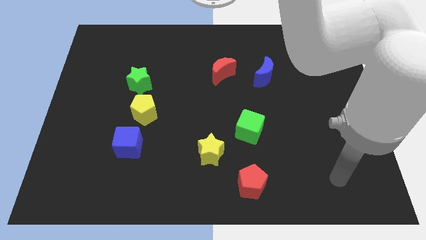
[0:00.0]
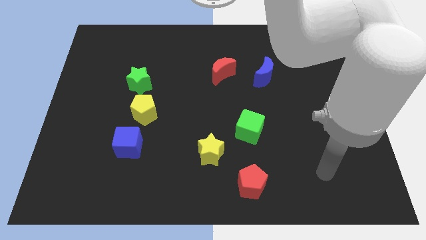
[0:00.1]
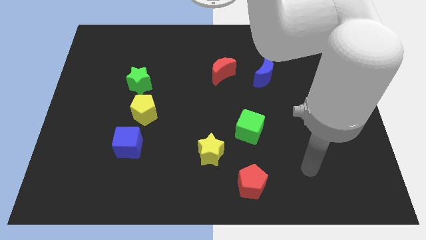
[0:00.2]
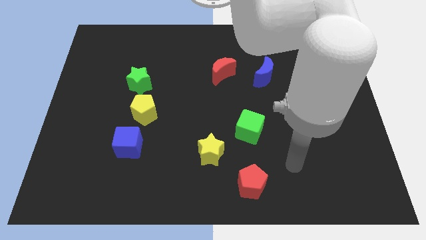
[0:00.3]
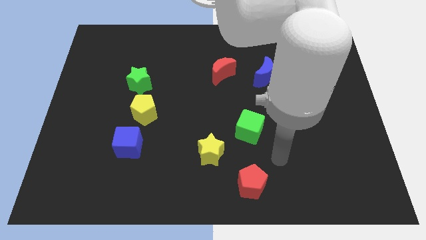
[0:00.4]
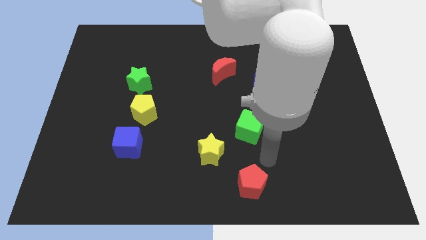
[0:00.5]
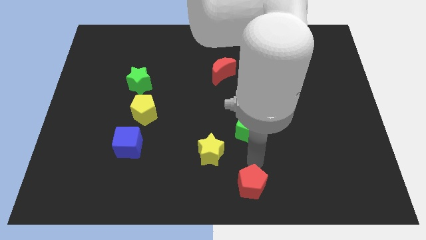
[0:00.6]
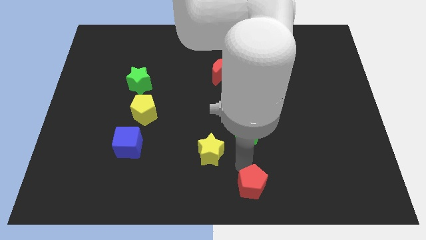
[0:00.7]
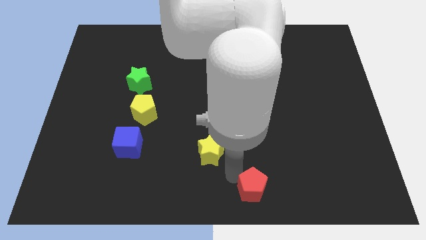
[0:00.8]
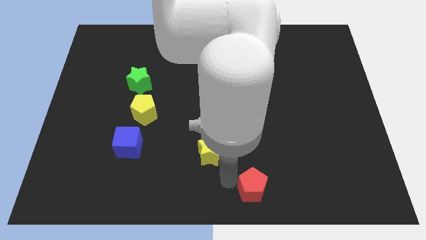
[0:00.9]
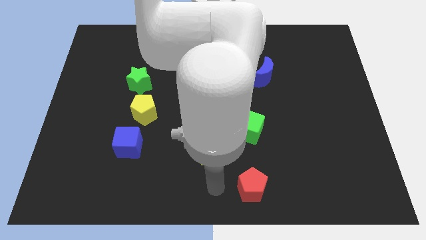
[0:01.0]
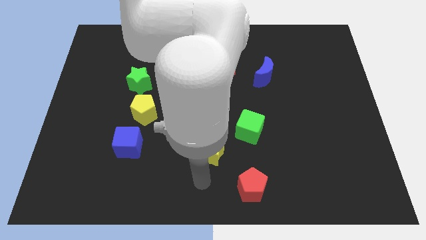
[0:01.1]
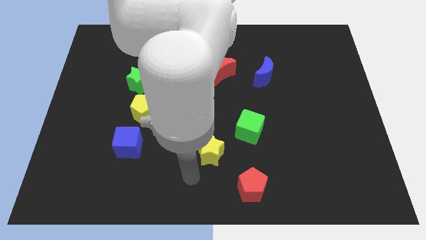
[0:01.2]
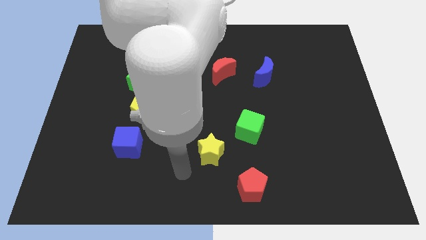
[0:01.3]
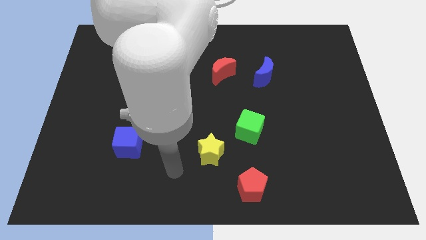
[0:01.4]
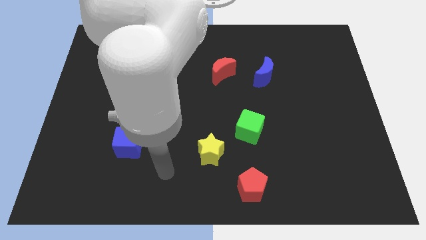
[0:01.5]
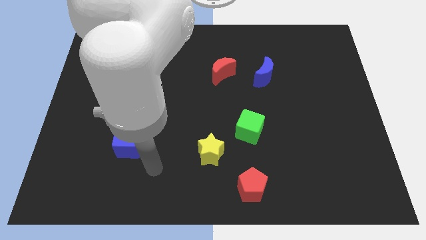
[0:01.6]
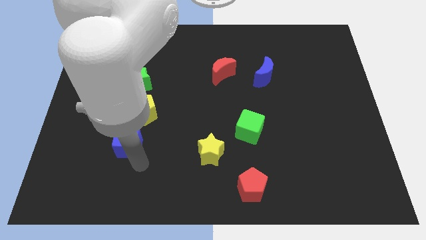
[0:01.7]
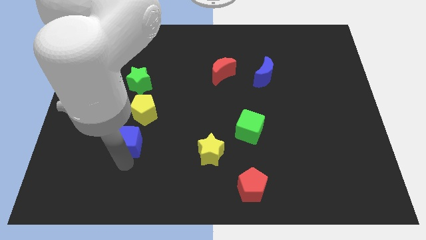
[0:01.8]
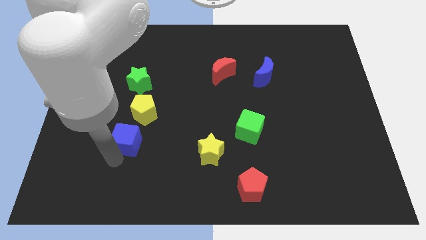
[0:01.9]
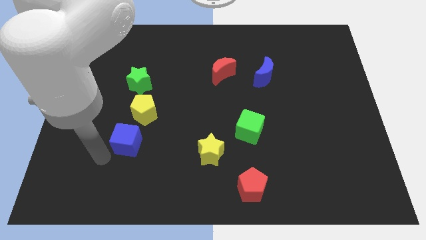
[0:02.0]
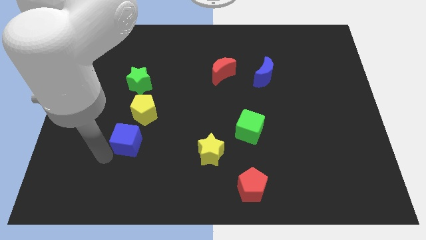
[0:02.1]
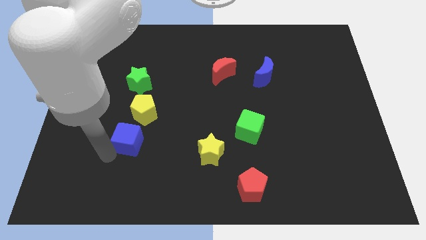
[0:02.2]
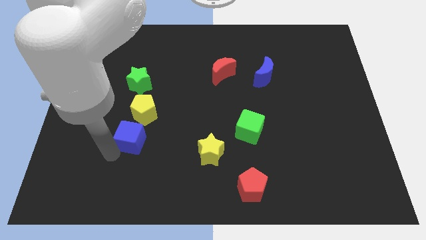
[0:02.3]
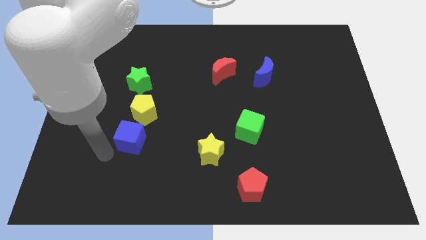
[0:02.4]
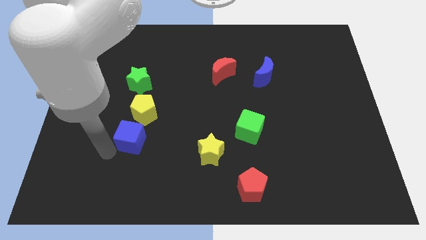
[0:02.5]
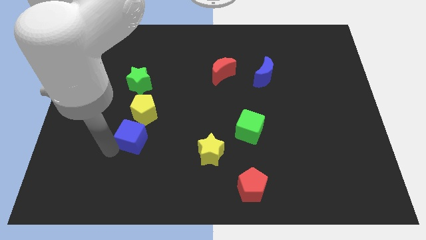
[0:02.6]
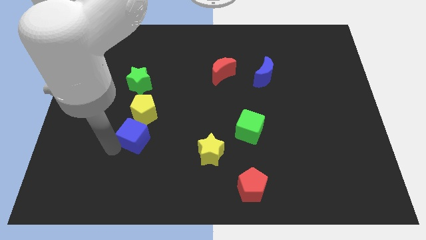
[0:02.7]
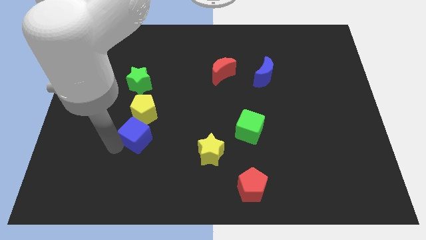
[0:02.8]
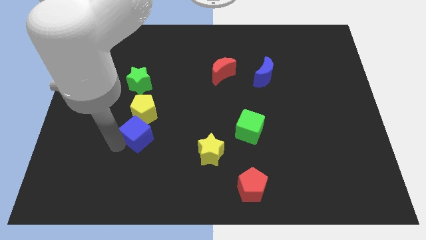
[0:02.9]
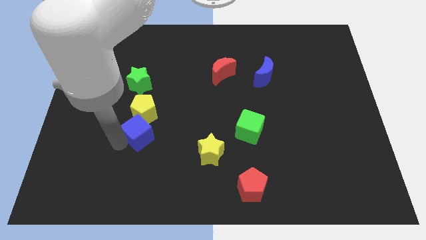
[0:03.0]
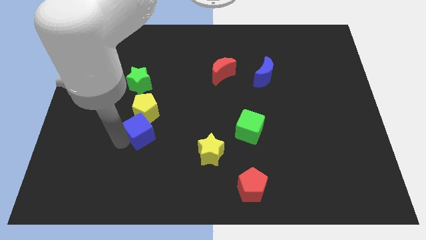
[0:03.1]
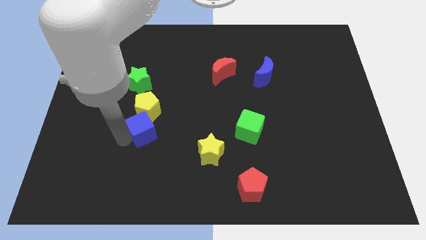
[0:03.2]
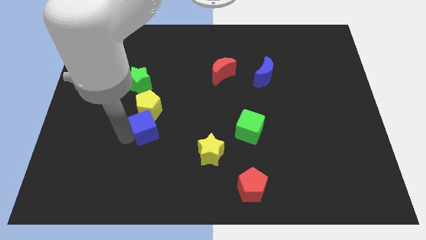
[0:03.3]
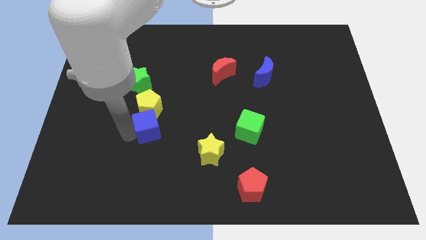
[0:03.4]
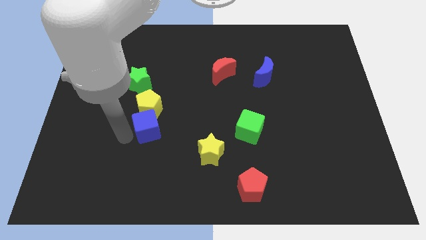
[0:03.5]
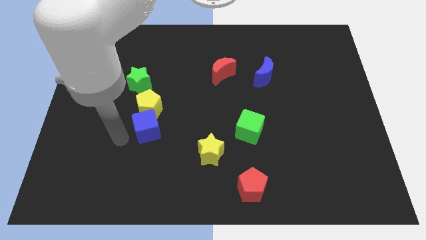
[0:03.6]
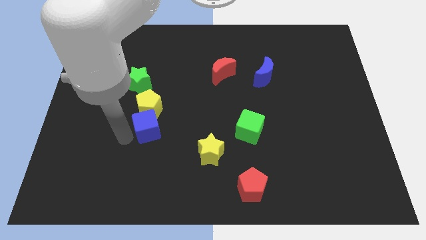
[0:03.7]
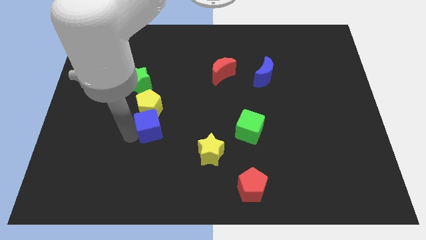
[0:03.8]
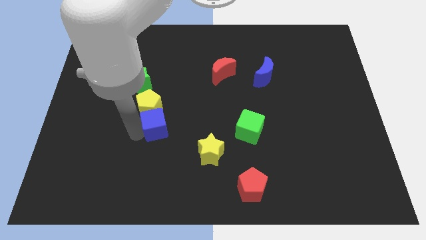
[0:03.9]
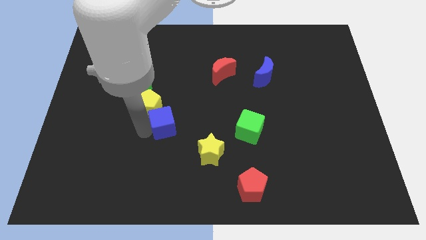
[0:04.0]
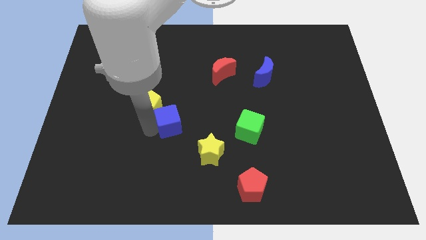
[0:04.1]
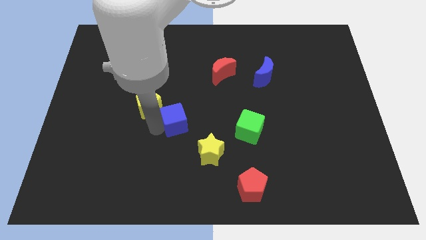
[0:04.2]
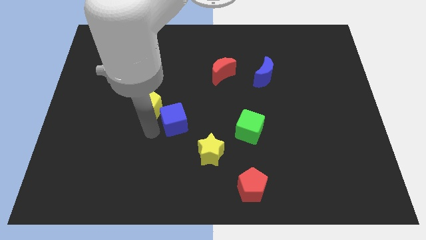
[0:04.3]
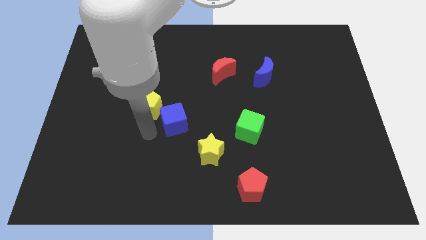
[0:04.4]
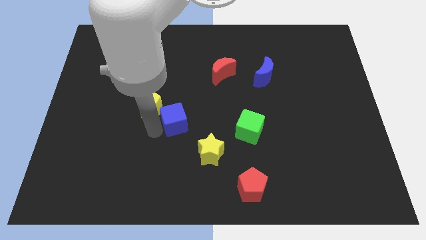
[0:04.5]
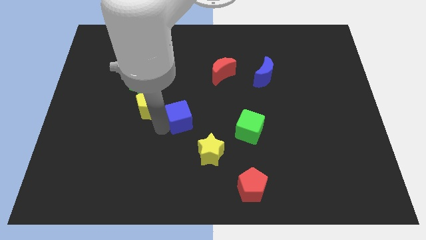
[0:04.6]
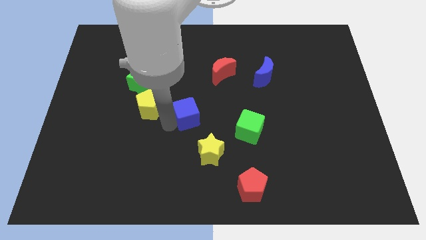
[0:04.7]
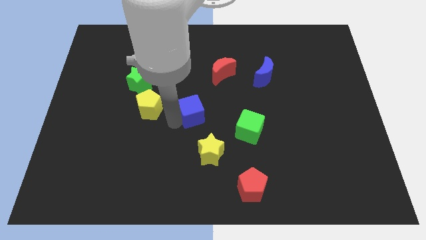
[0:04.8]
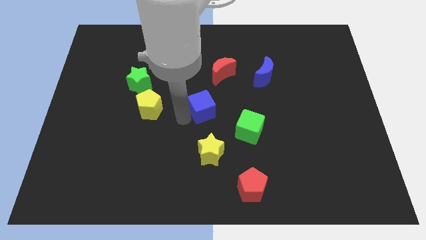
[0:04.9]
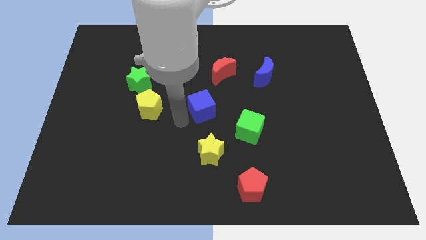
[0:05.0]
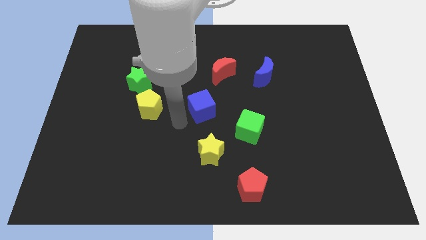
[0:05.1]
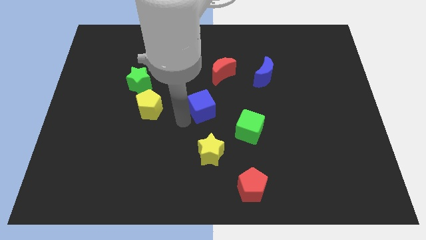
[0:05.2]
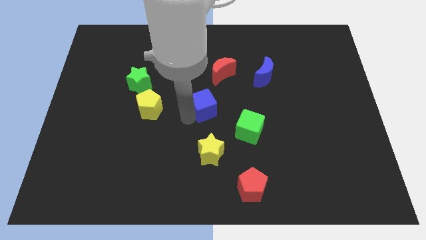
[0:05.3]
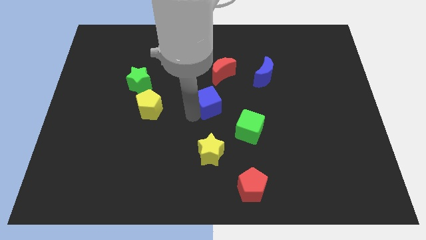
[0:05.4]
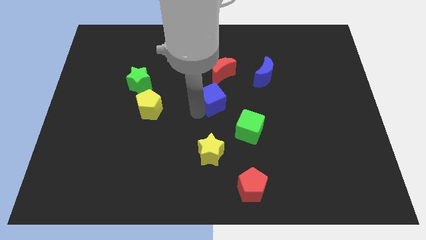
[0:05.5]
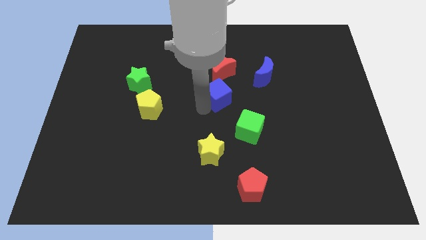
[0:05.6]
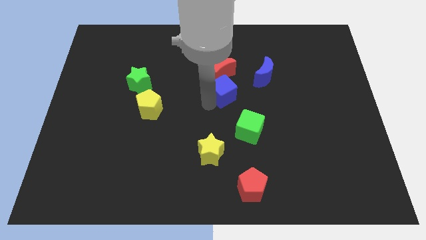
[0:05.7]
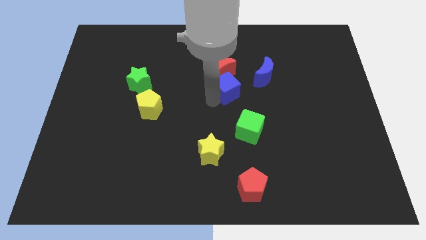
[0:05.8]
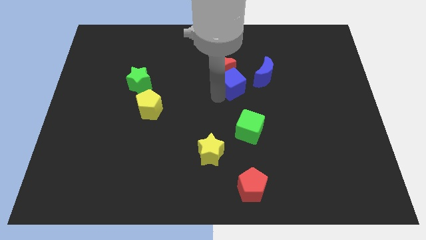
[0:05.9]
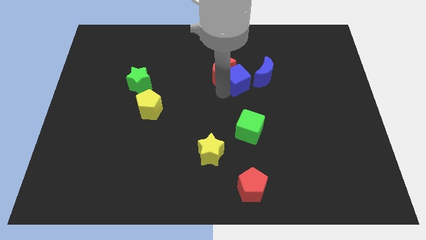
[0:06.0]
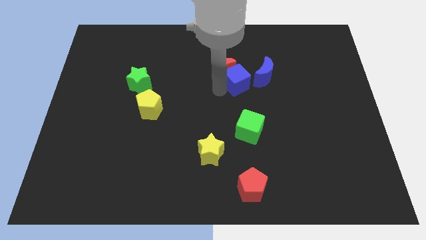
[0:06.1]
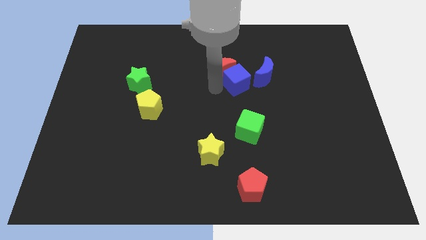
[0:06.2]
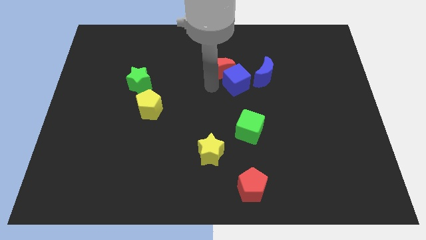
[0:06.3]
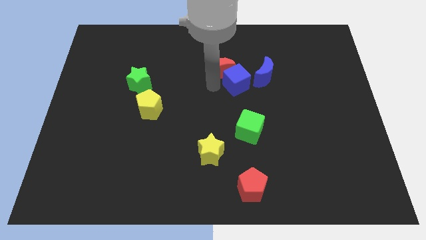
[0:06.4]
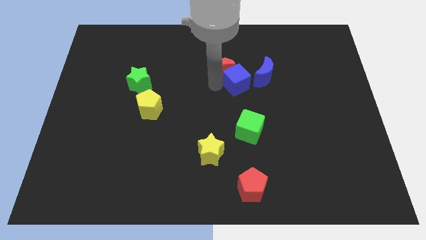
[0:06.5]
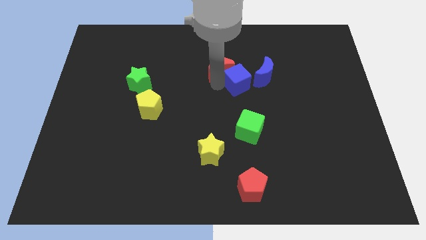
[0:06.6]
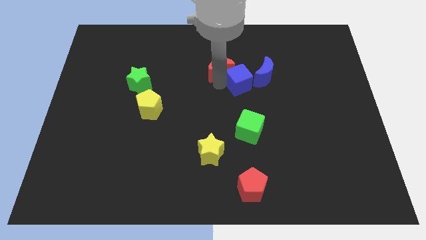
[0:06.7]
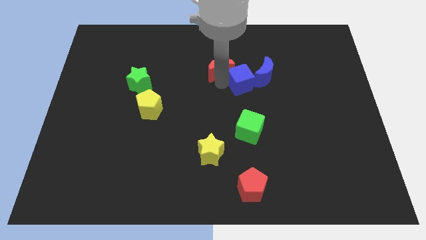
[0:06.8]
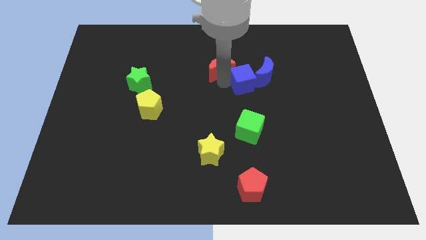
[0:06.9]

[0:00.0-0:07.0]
push the blue cube to the blue moon
